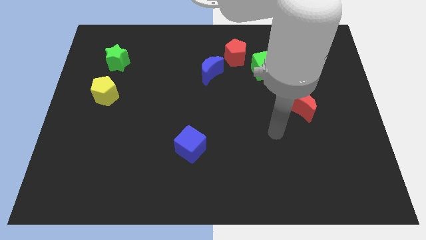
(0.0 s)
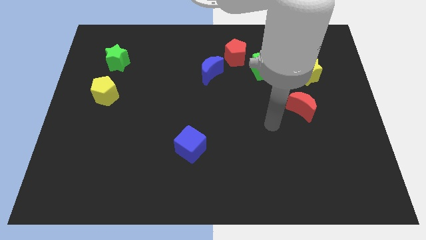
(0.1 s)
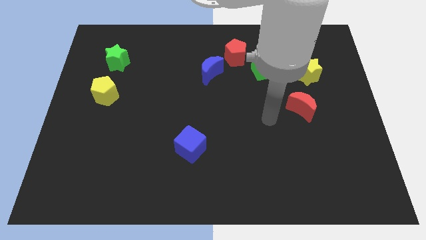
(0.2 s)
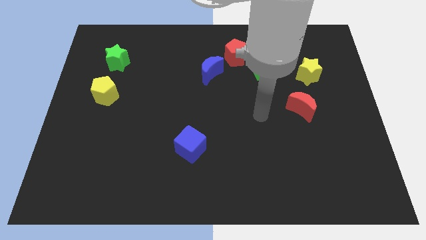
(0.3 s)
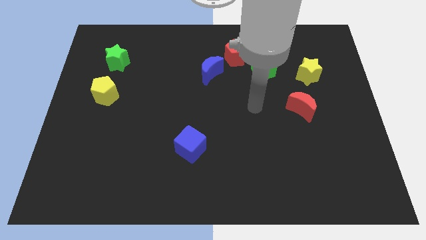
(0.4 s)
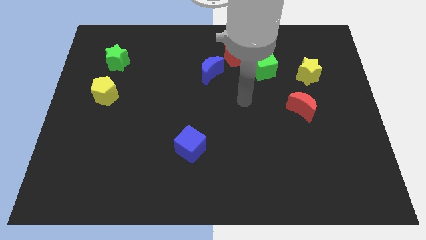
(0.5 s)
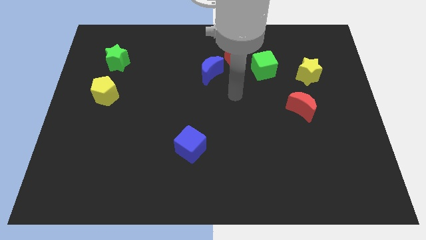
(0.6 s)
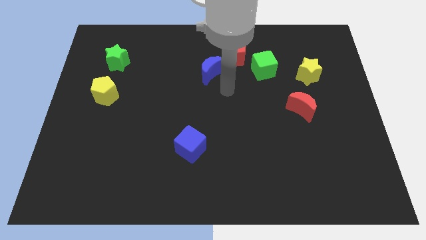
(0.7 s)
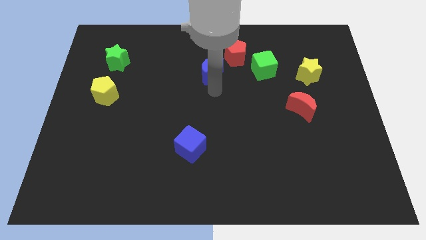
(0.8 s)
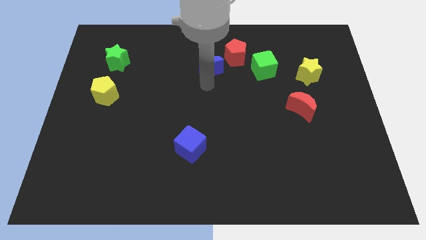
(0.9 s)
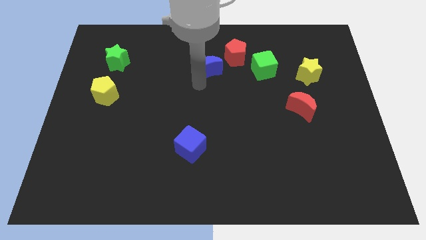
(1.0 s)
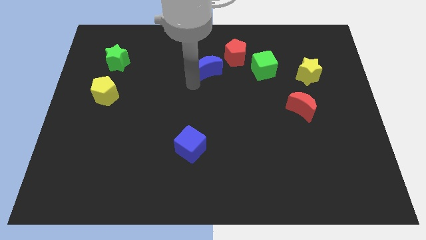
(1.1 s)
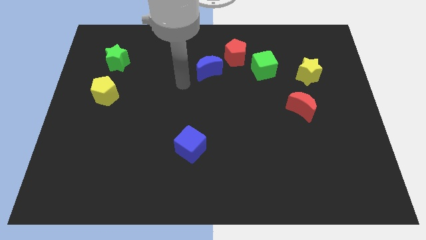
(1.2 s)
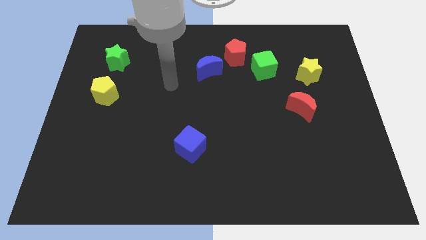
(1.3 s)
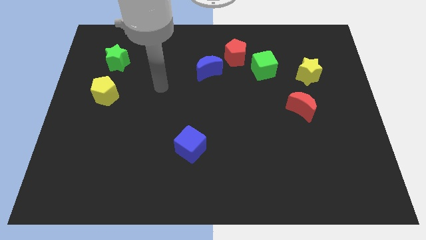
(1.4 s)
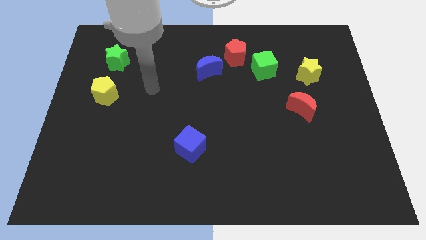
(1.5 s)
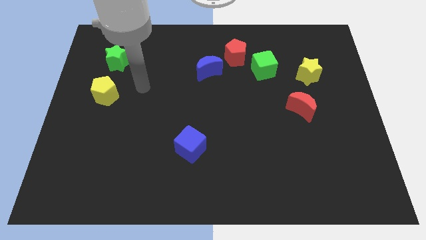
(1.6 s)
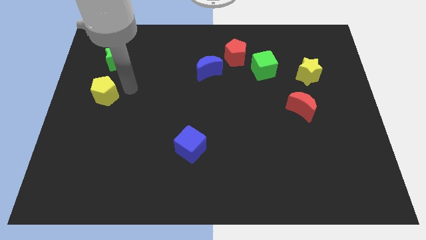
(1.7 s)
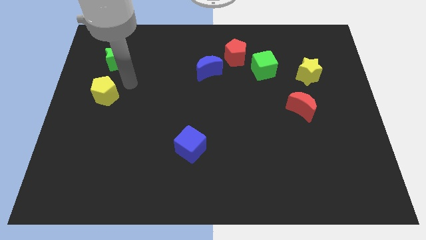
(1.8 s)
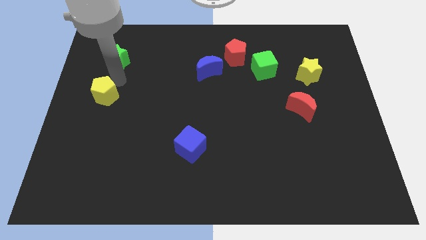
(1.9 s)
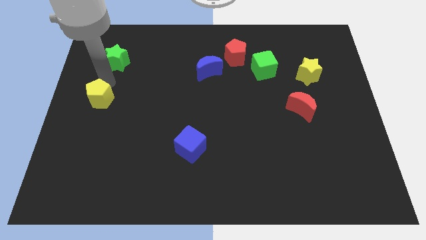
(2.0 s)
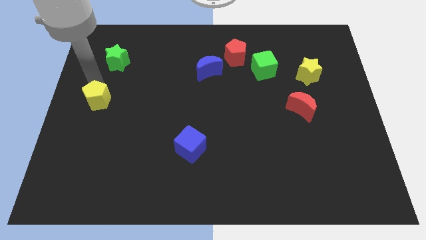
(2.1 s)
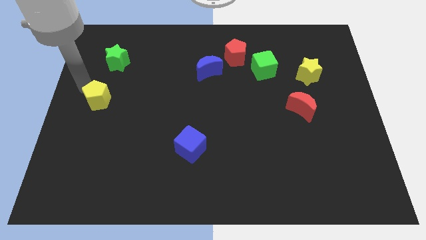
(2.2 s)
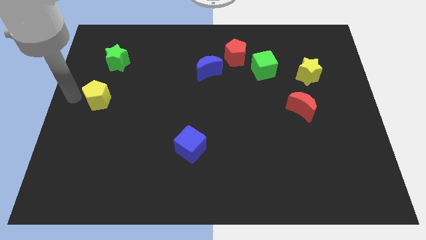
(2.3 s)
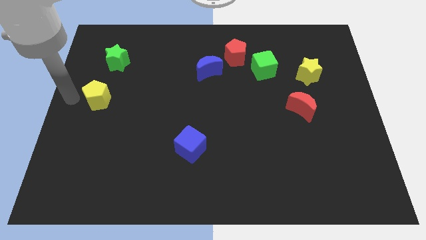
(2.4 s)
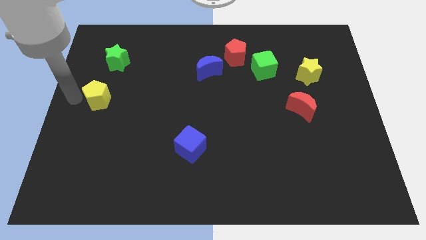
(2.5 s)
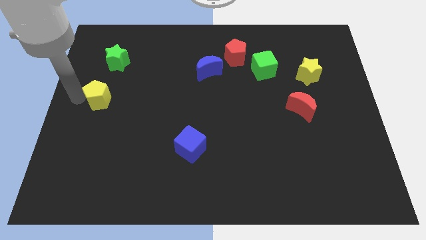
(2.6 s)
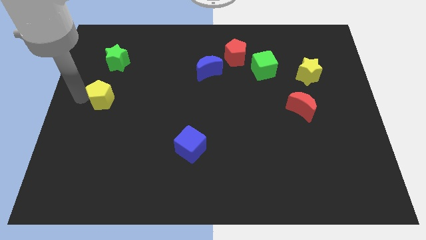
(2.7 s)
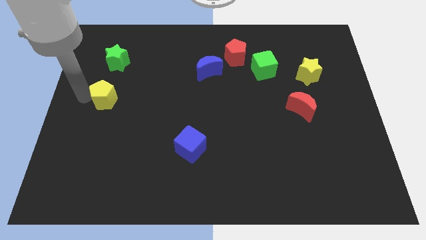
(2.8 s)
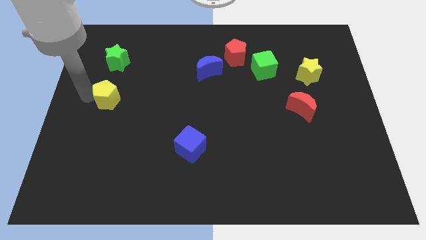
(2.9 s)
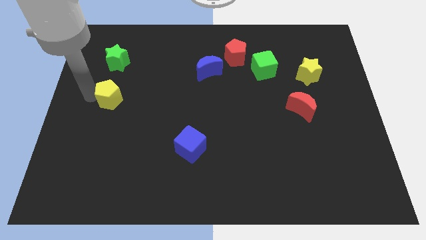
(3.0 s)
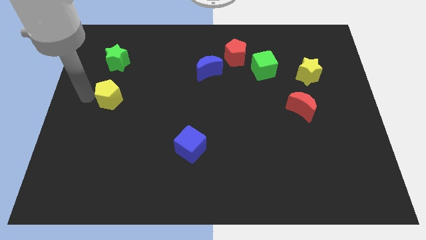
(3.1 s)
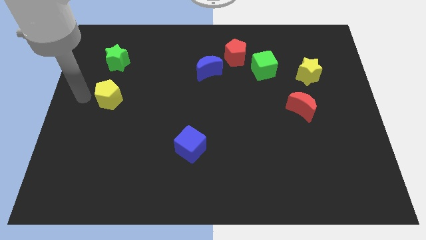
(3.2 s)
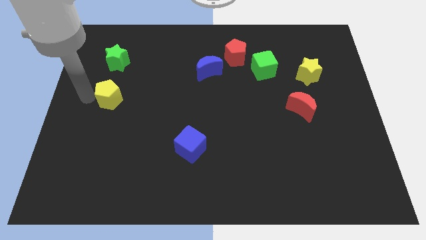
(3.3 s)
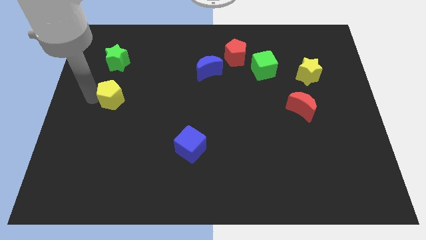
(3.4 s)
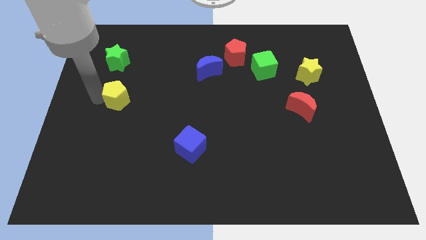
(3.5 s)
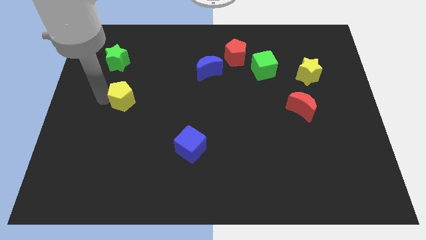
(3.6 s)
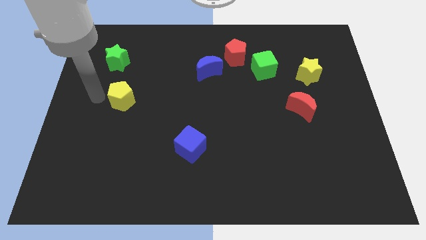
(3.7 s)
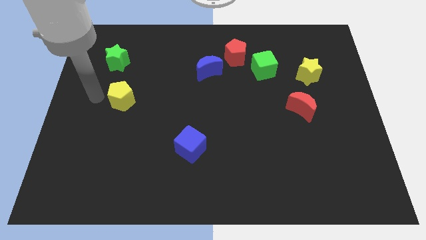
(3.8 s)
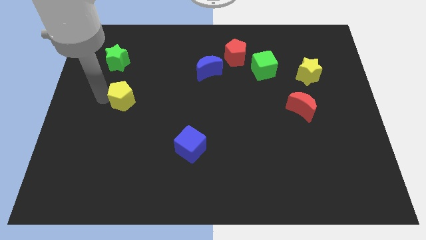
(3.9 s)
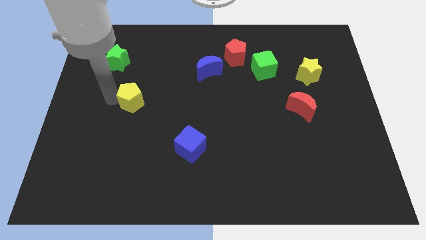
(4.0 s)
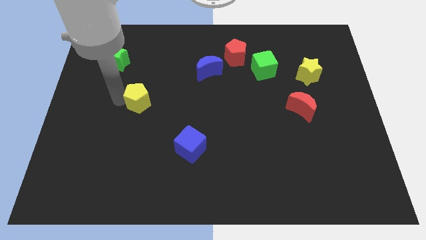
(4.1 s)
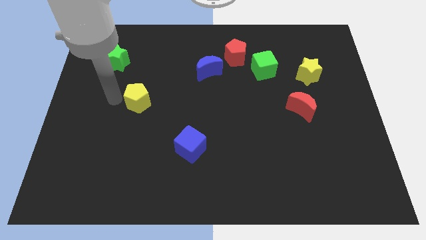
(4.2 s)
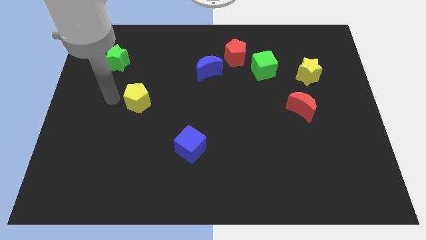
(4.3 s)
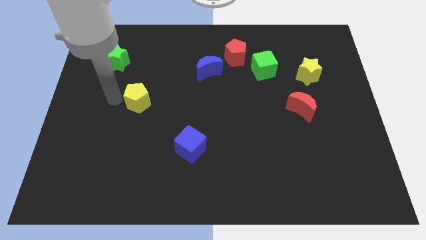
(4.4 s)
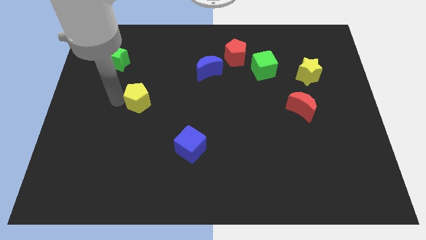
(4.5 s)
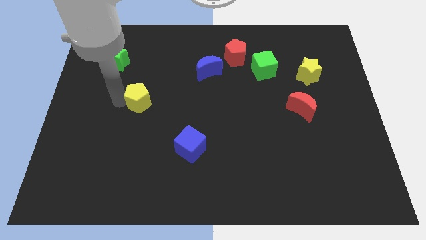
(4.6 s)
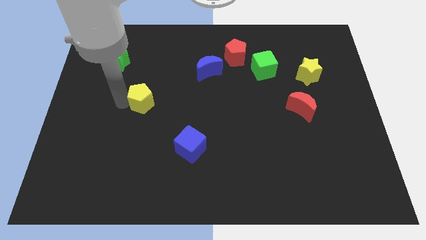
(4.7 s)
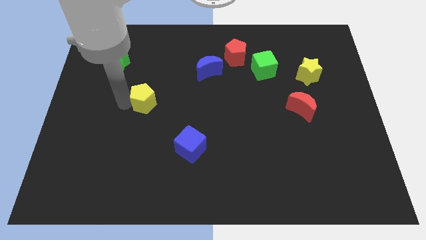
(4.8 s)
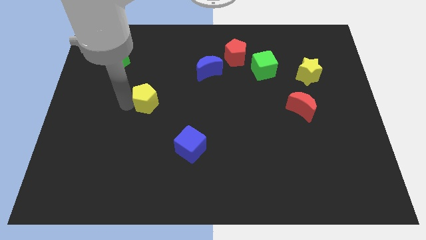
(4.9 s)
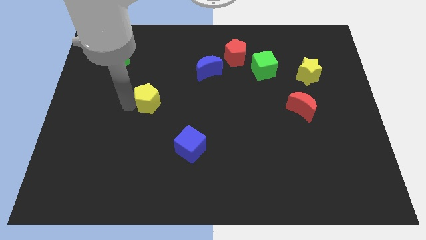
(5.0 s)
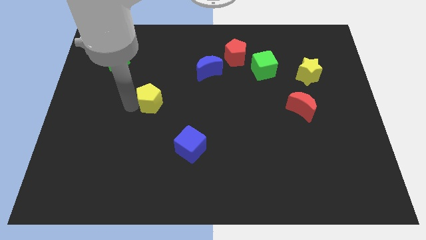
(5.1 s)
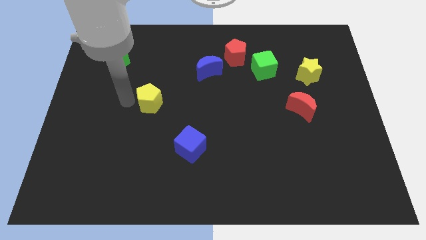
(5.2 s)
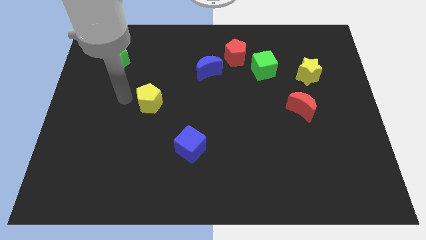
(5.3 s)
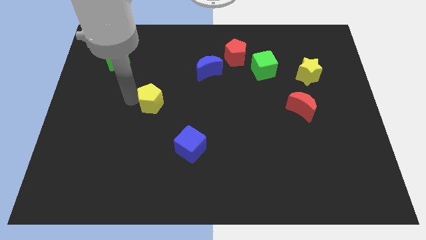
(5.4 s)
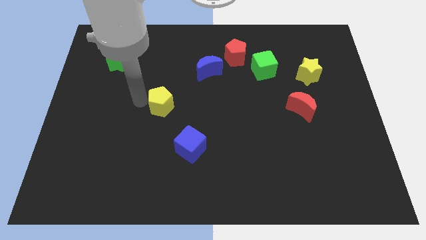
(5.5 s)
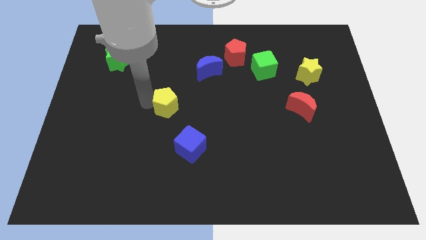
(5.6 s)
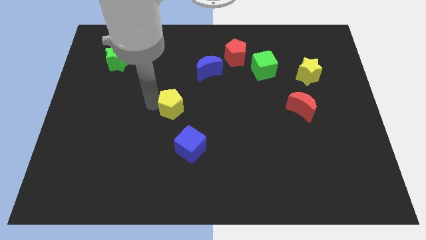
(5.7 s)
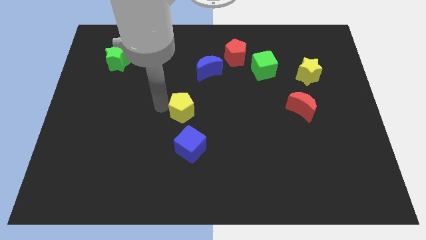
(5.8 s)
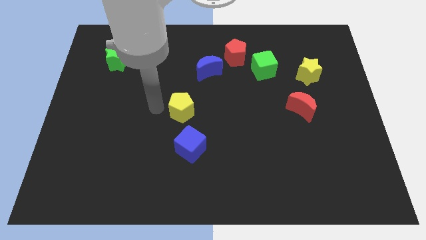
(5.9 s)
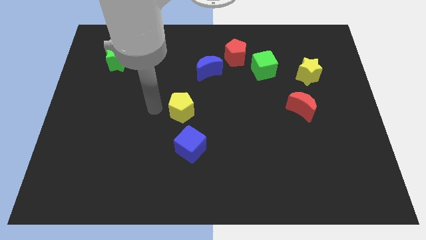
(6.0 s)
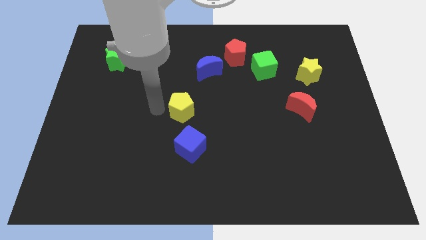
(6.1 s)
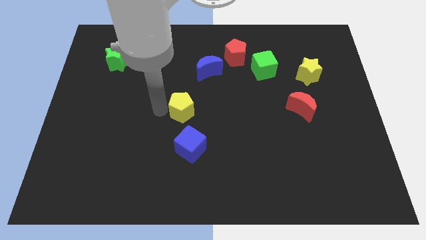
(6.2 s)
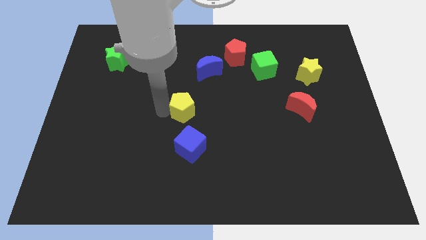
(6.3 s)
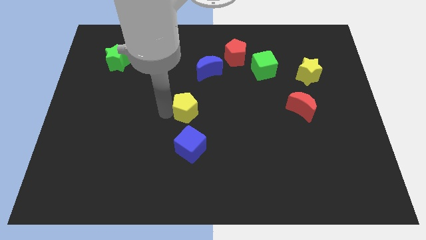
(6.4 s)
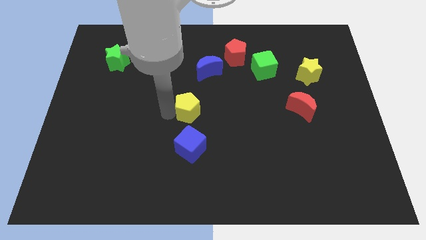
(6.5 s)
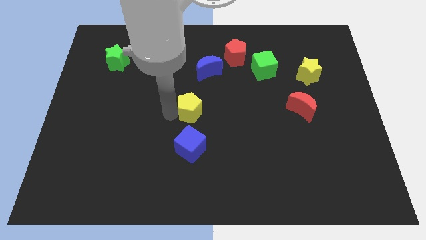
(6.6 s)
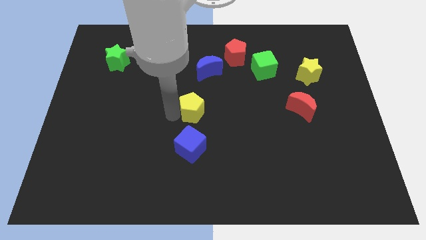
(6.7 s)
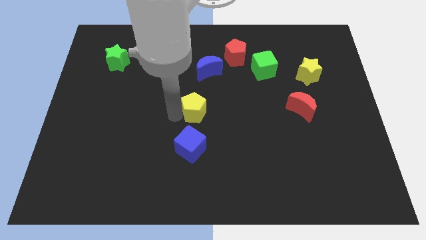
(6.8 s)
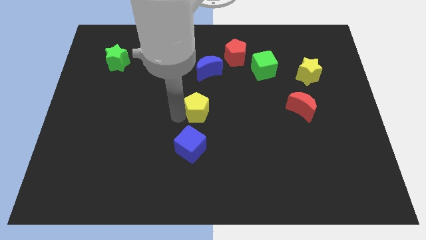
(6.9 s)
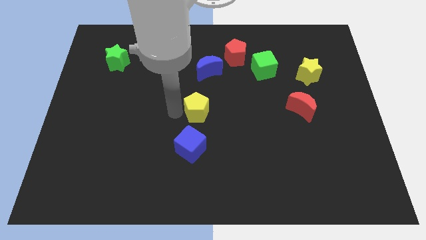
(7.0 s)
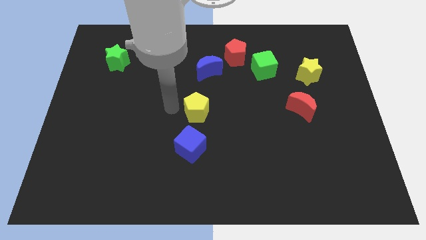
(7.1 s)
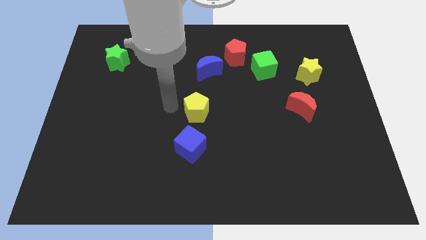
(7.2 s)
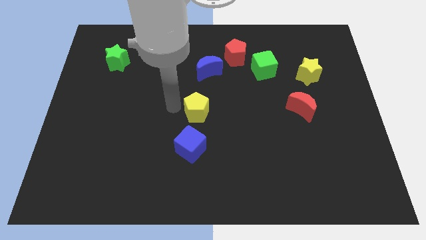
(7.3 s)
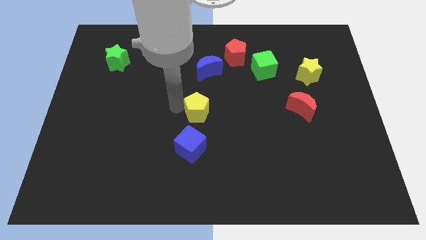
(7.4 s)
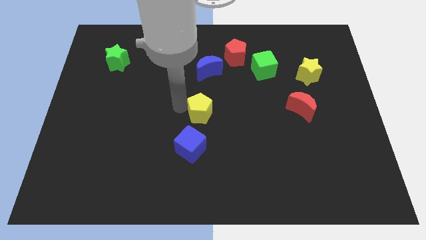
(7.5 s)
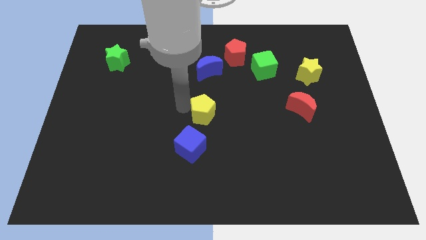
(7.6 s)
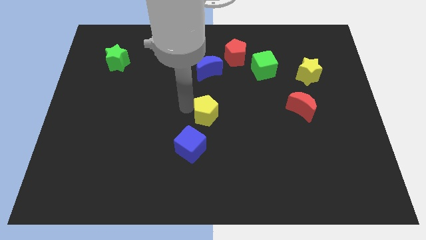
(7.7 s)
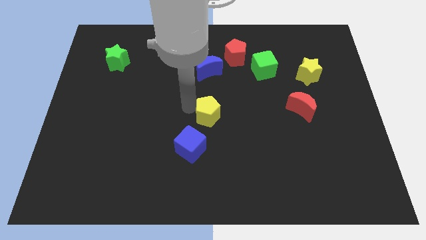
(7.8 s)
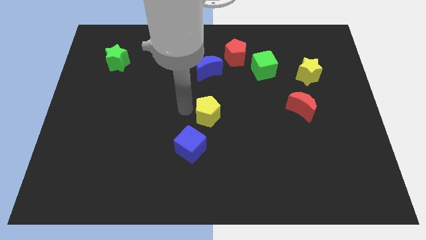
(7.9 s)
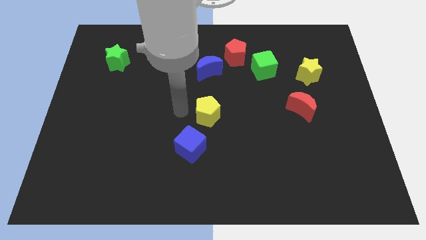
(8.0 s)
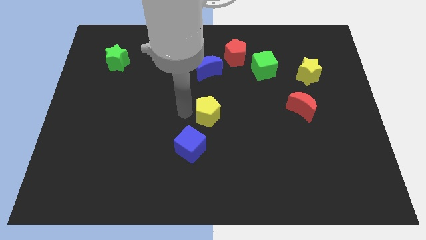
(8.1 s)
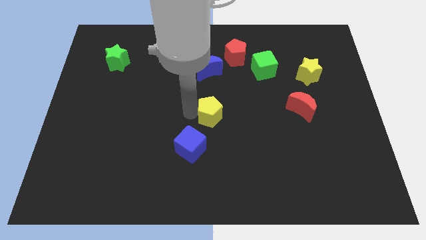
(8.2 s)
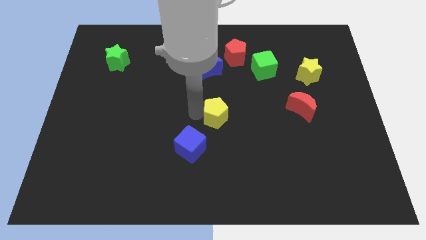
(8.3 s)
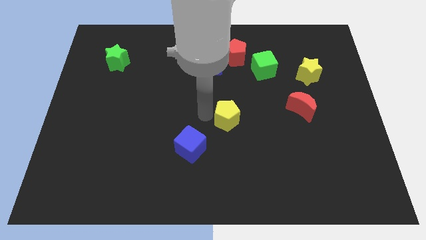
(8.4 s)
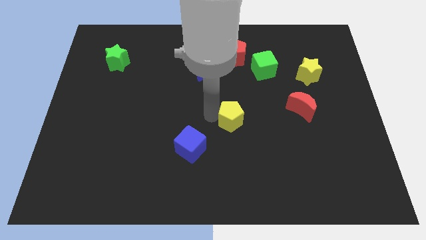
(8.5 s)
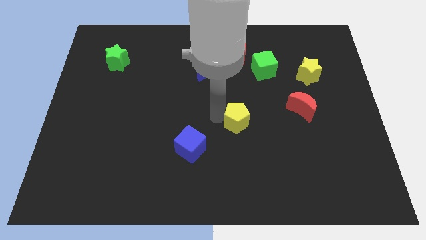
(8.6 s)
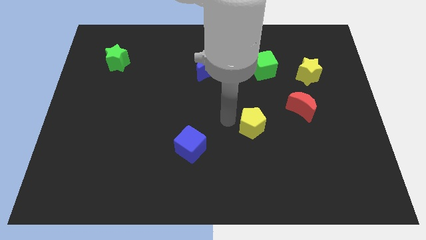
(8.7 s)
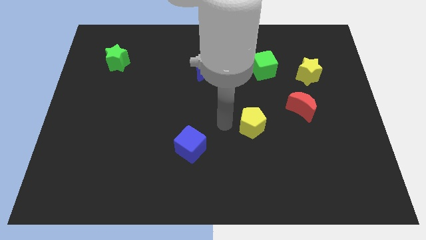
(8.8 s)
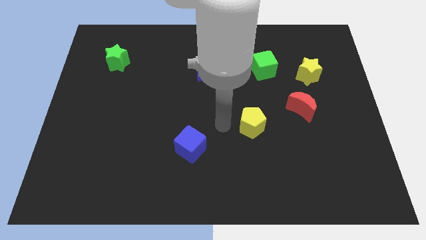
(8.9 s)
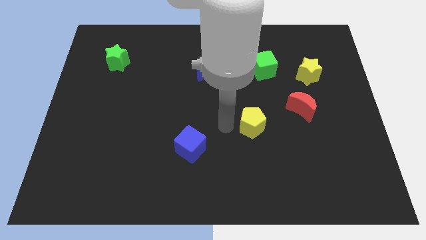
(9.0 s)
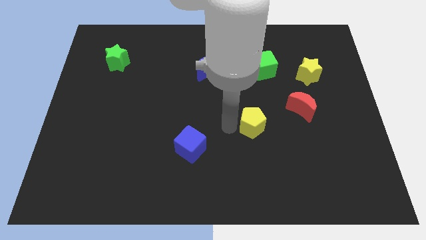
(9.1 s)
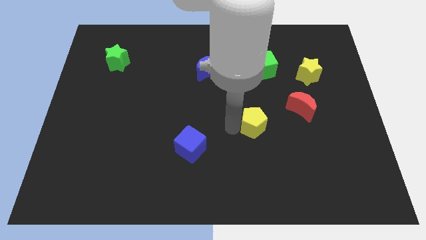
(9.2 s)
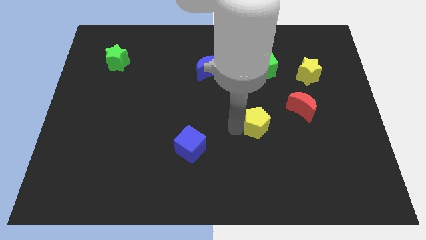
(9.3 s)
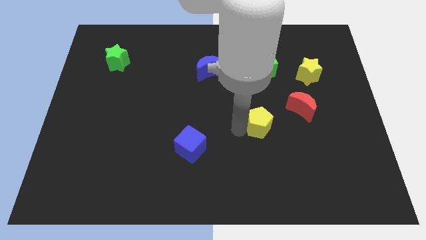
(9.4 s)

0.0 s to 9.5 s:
slide the yellow pentagon to the bottom left side of the red moon
